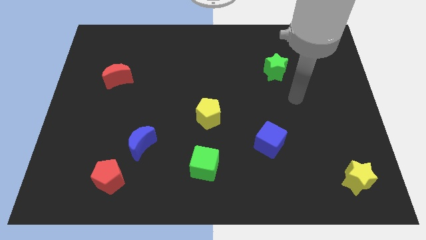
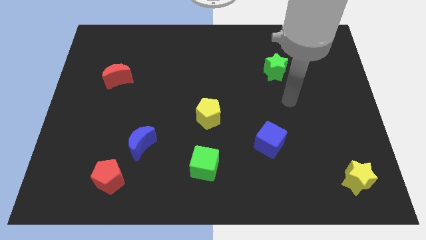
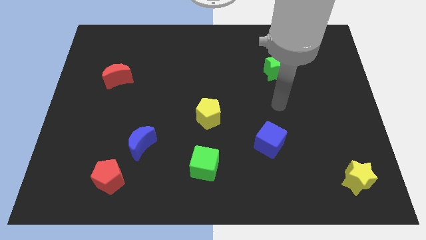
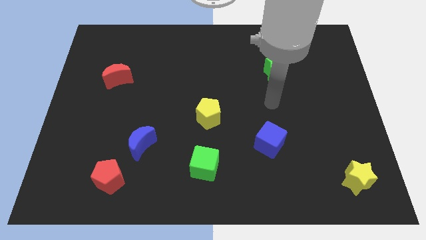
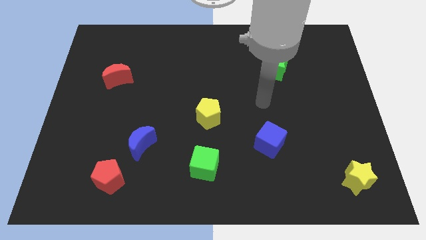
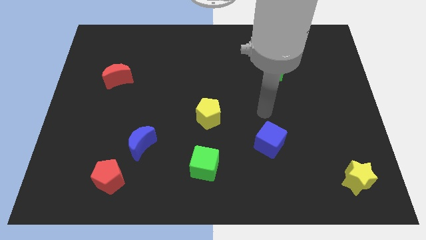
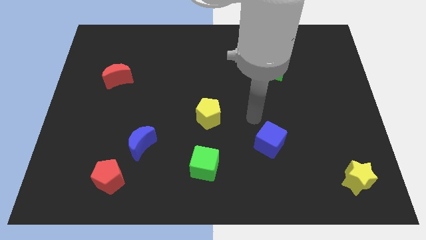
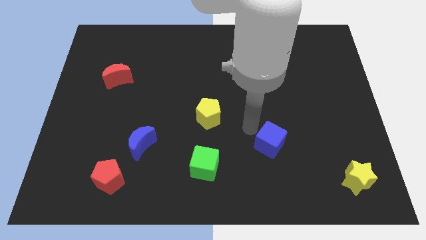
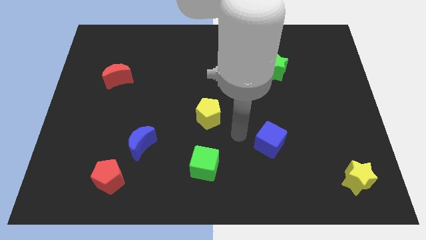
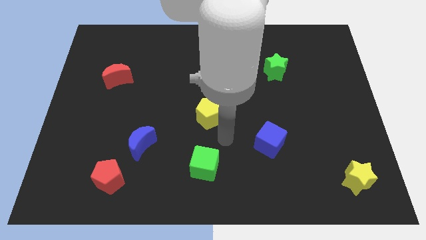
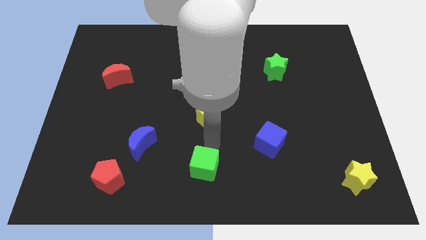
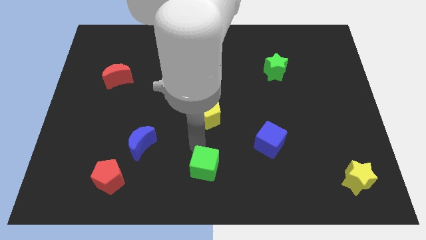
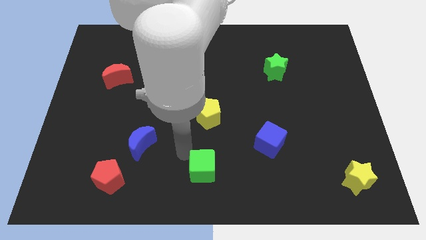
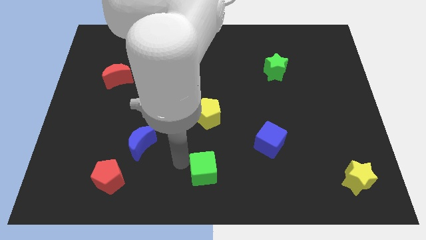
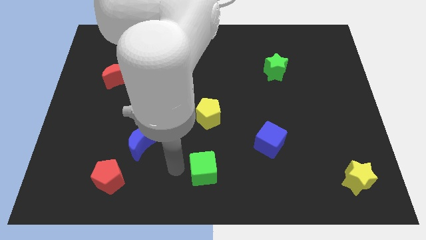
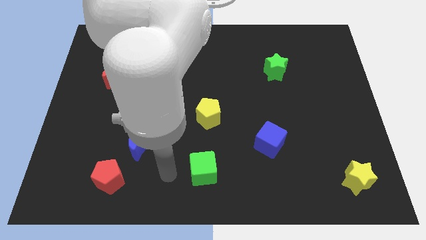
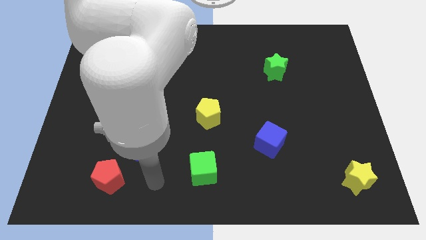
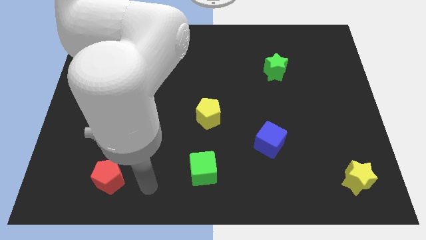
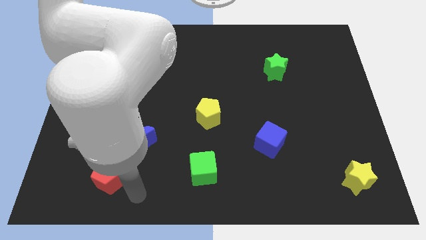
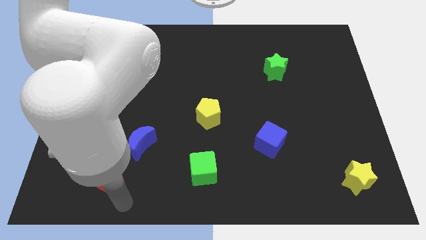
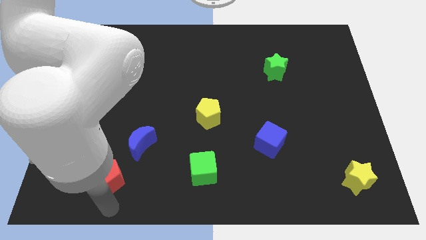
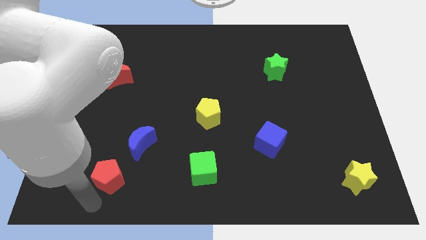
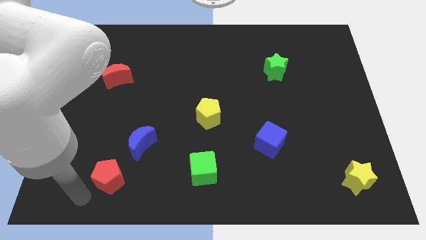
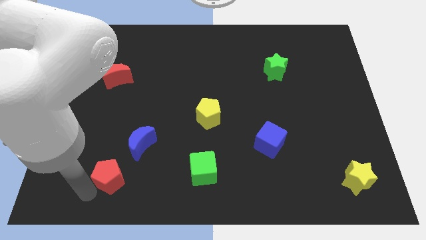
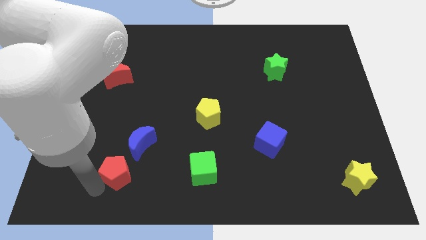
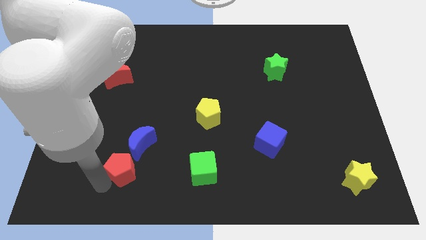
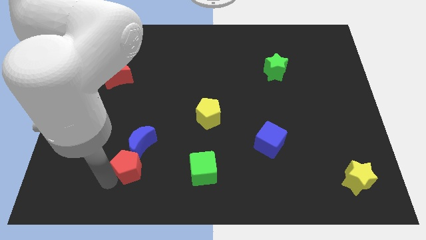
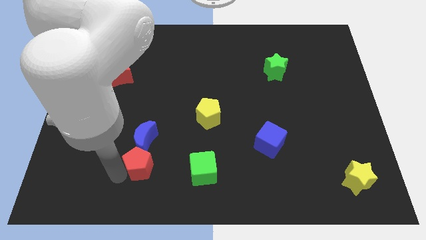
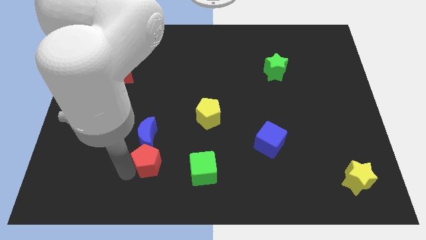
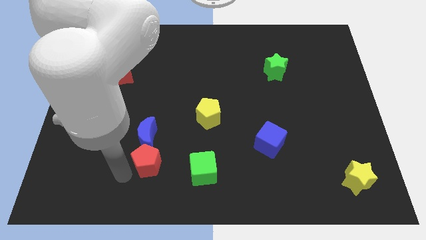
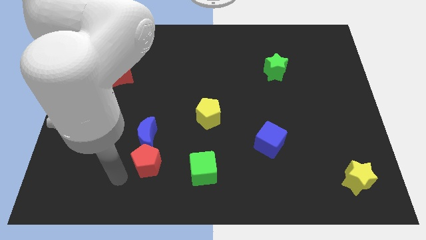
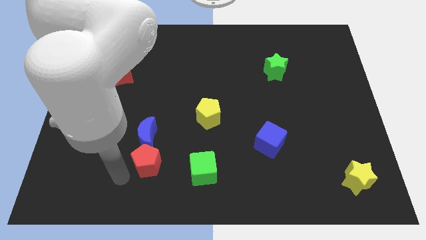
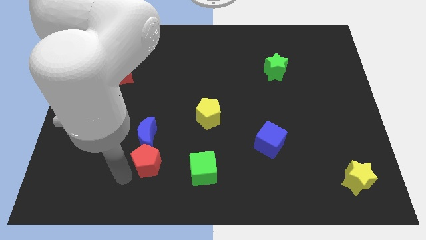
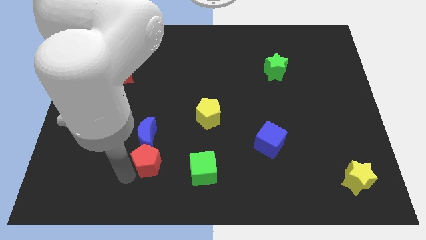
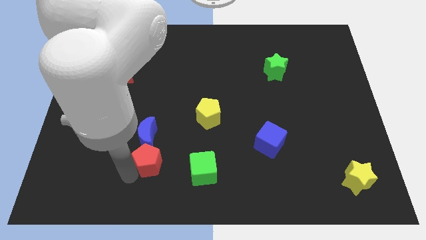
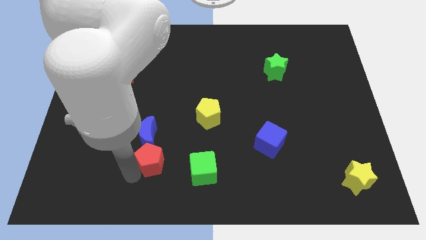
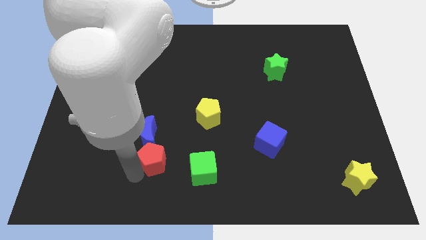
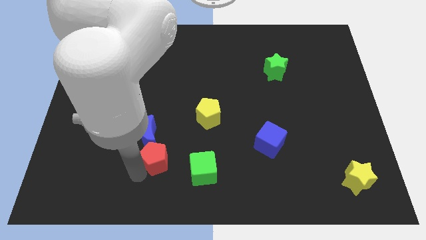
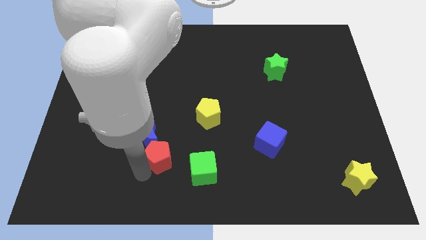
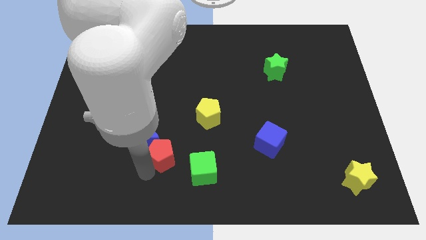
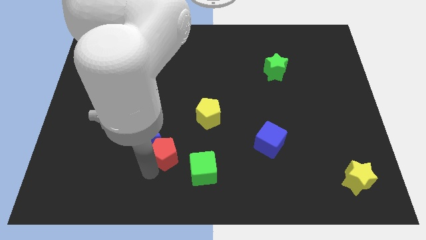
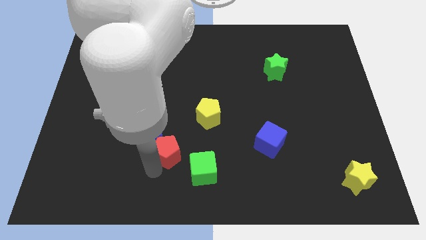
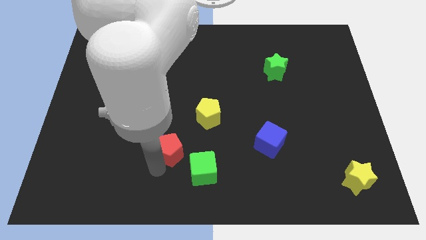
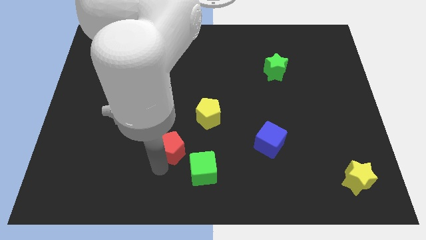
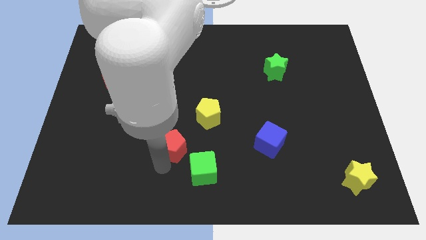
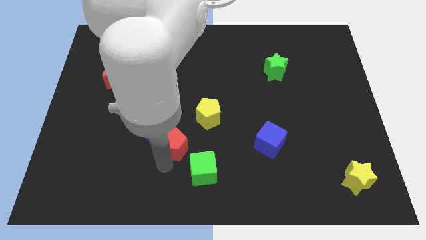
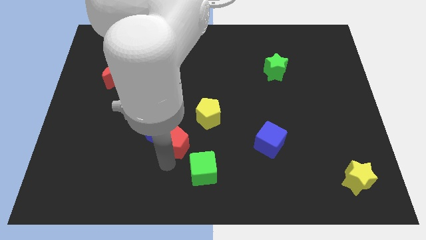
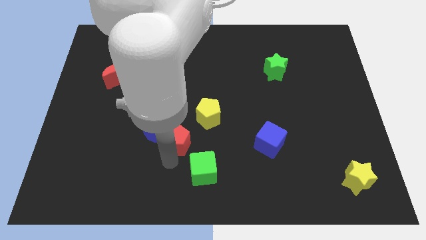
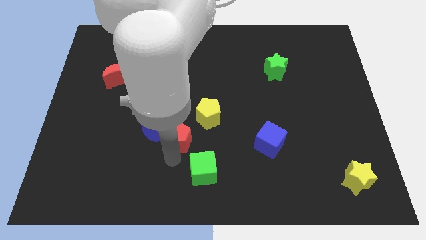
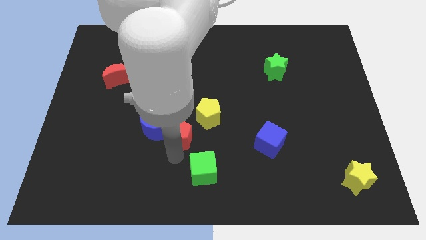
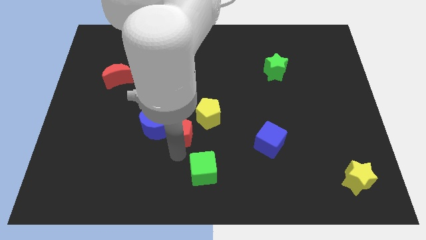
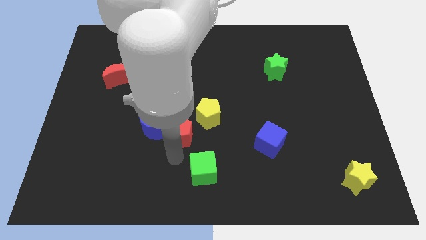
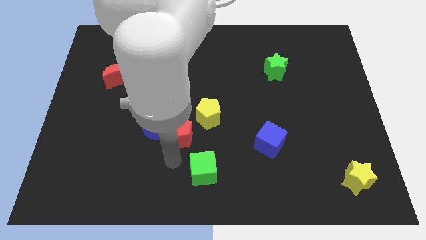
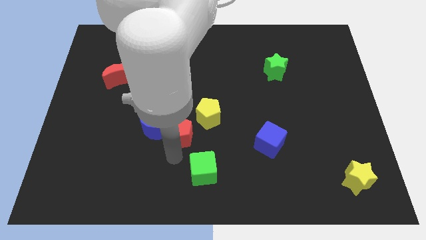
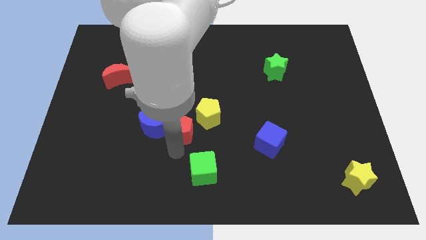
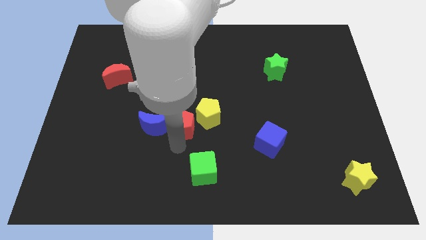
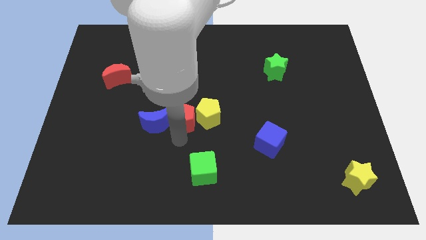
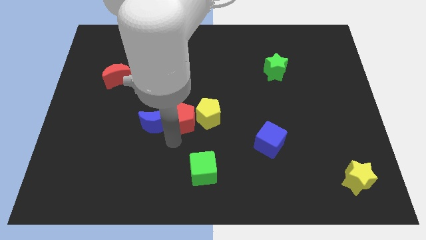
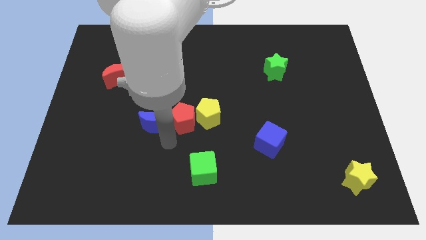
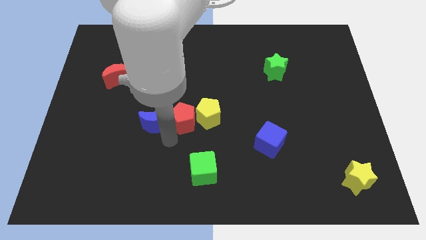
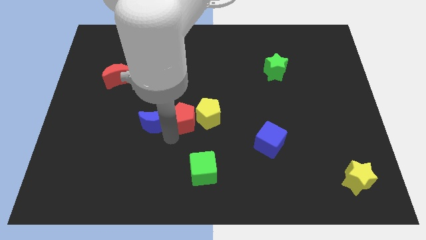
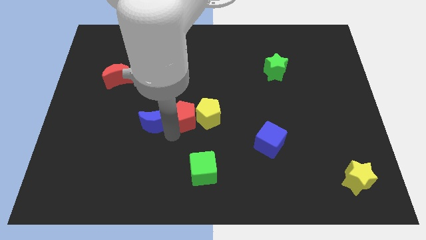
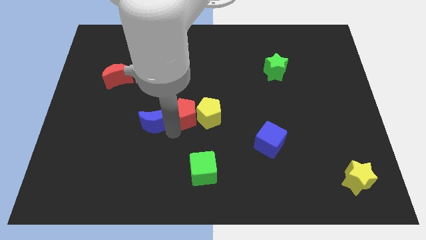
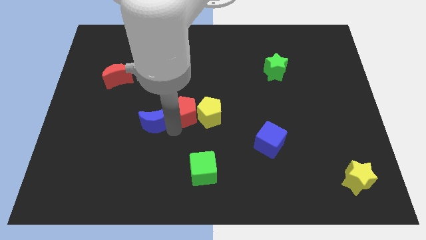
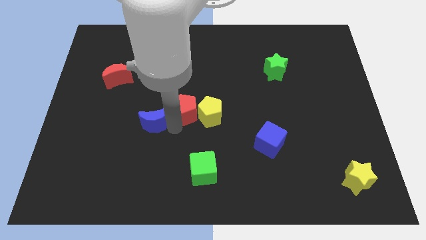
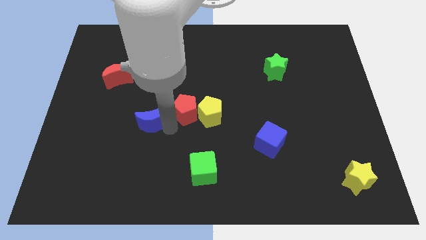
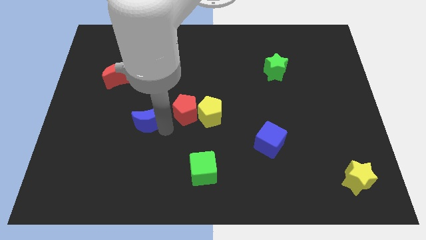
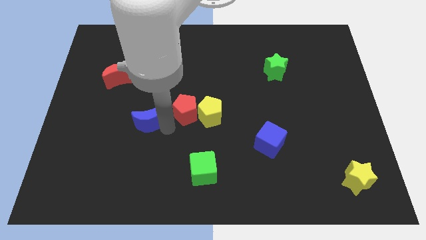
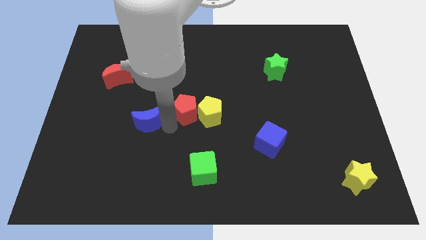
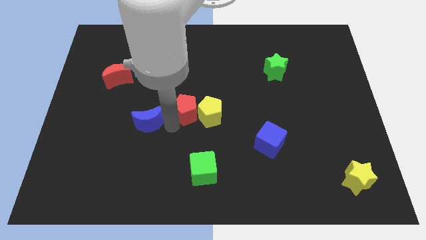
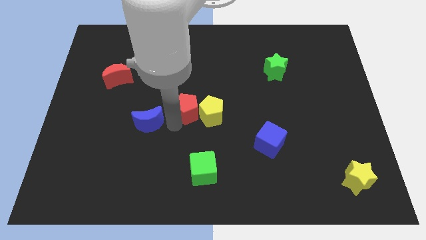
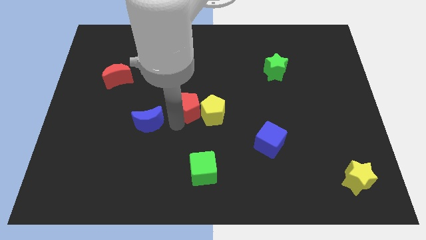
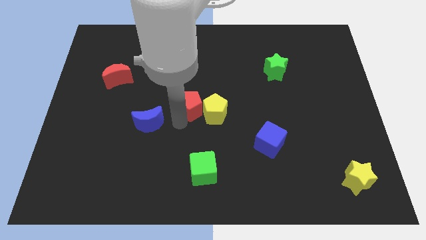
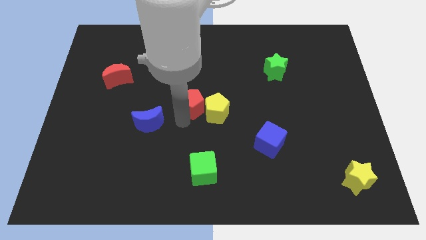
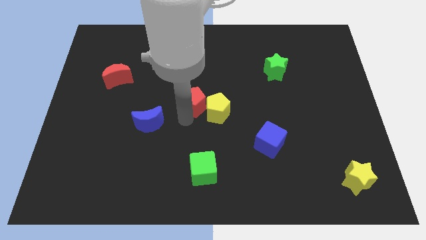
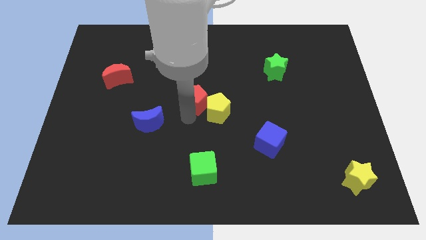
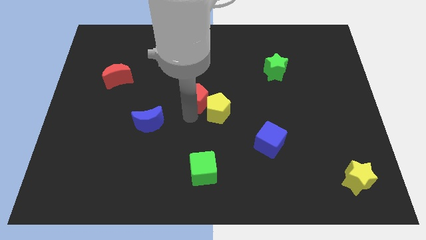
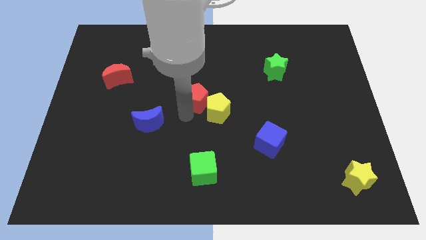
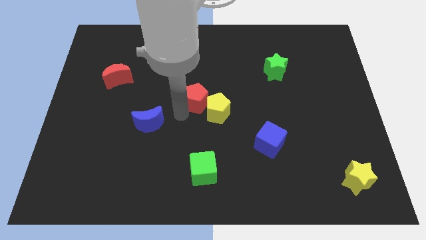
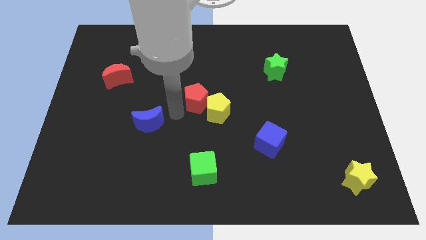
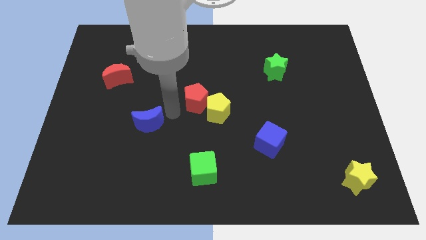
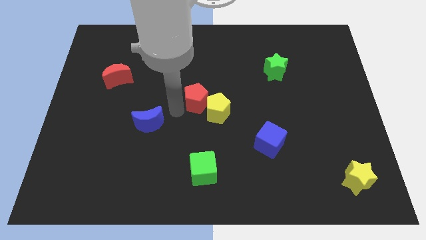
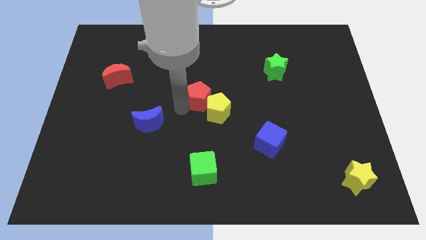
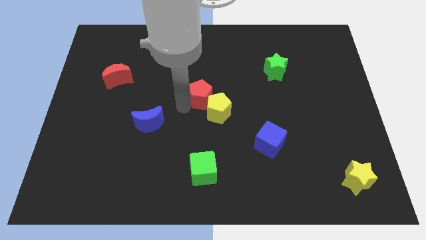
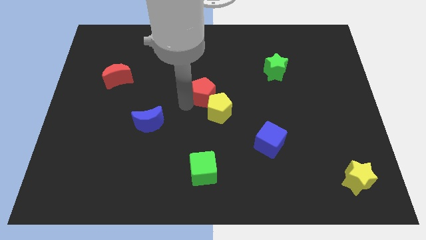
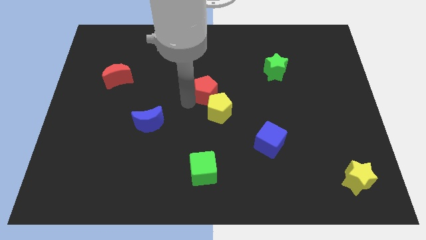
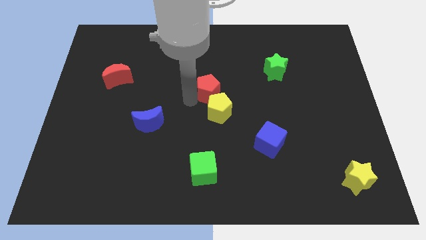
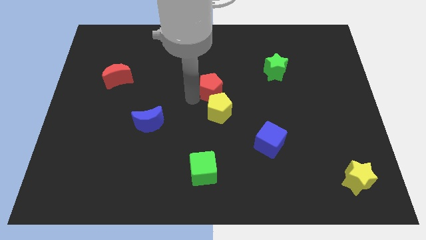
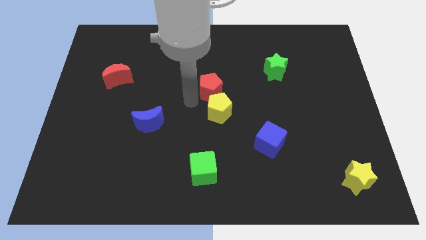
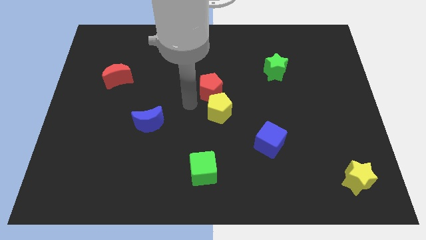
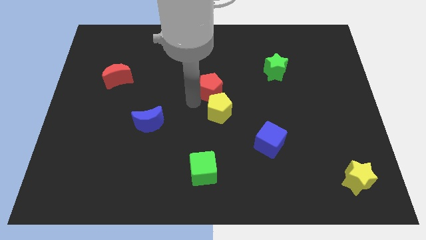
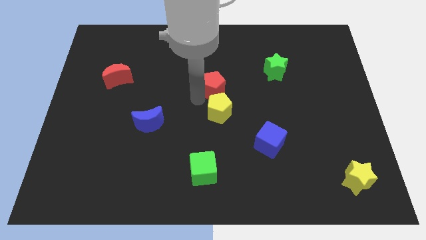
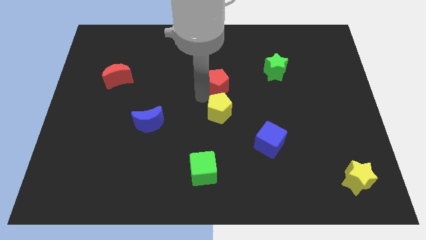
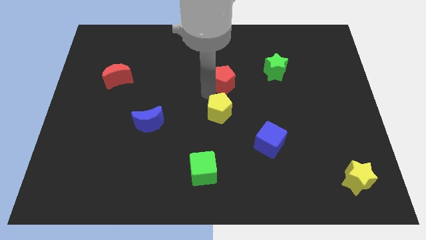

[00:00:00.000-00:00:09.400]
put the red pentagon just left of the green star
